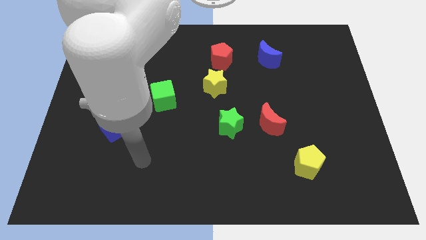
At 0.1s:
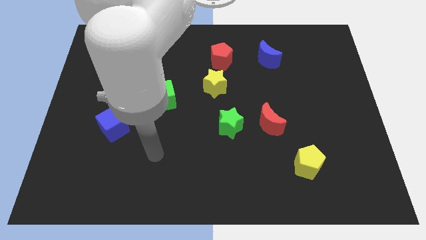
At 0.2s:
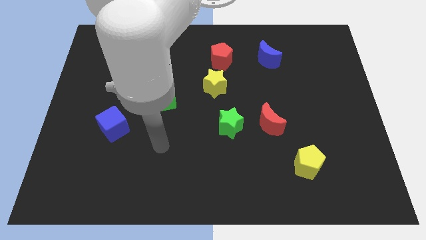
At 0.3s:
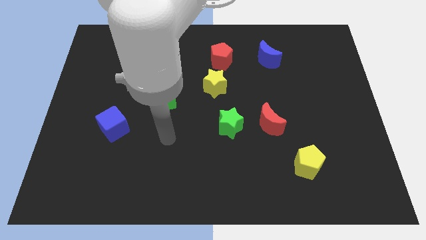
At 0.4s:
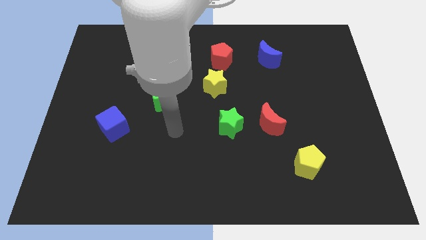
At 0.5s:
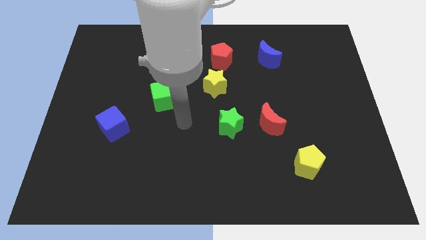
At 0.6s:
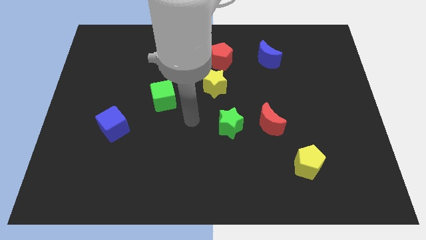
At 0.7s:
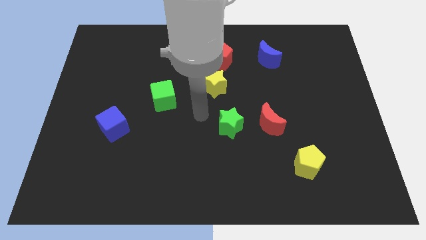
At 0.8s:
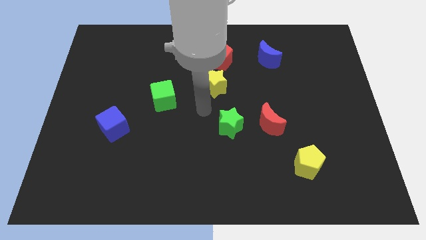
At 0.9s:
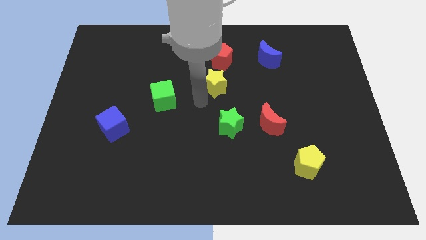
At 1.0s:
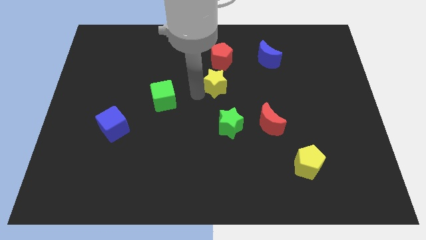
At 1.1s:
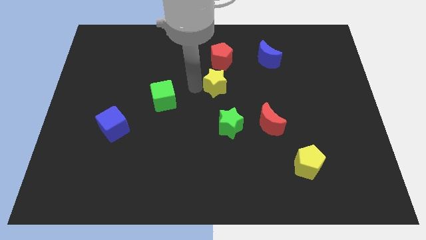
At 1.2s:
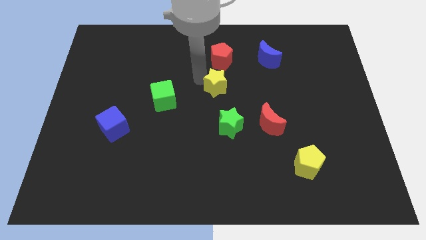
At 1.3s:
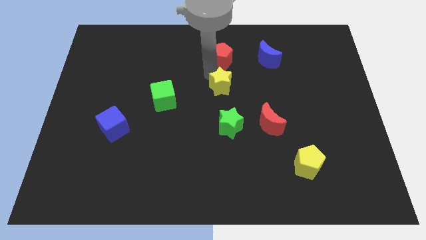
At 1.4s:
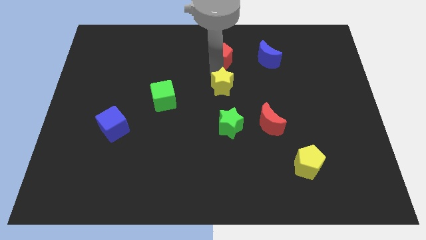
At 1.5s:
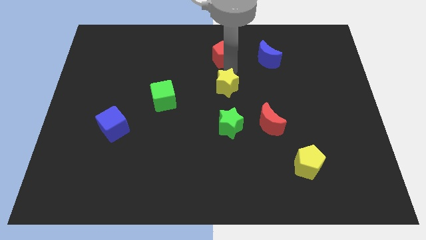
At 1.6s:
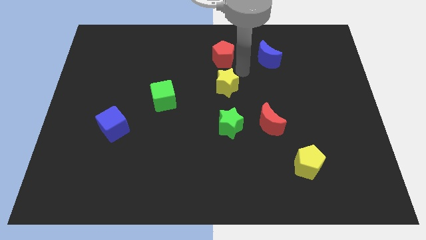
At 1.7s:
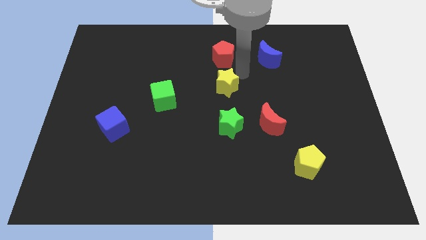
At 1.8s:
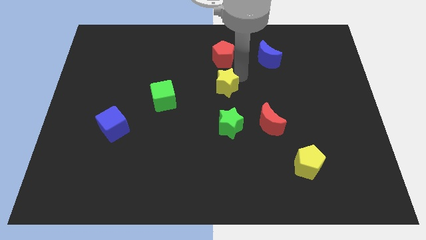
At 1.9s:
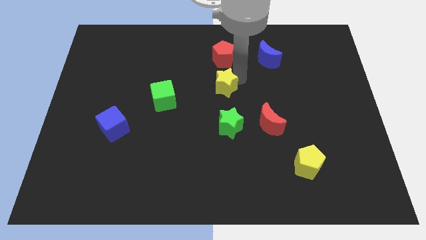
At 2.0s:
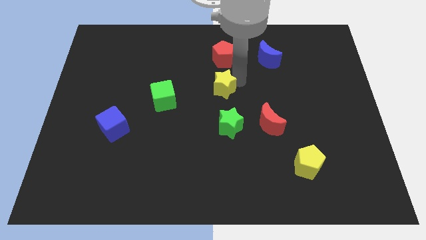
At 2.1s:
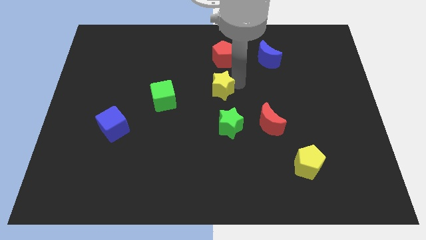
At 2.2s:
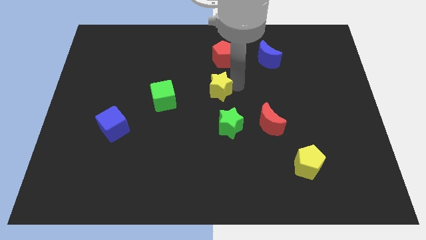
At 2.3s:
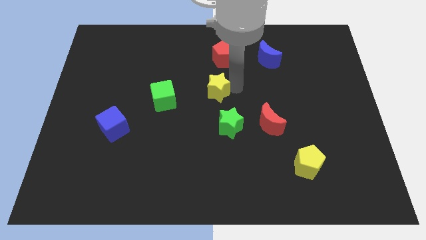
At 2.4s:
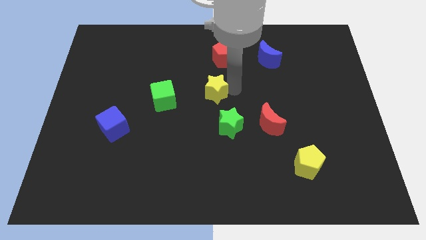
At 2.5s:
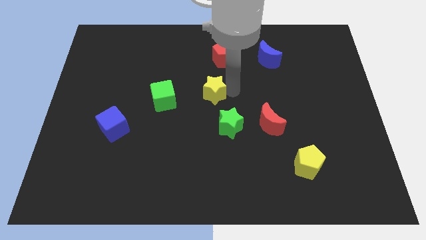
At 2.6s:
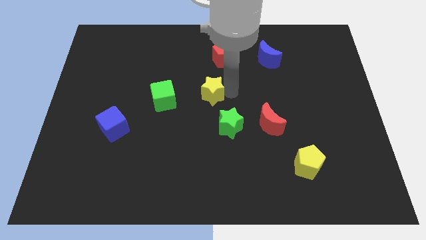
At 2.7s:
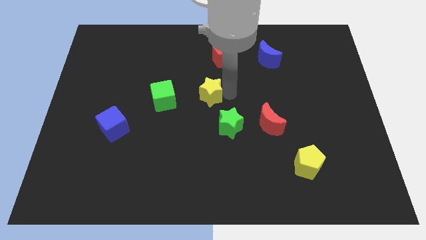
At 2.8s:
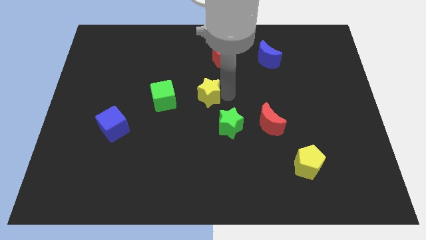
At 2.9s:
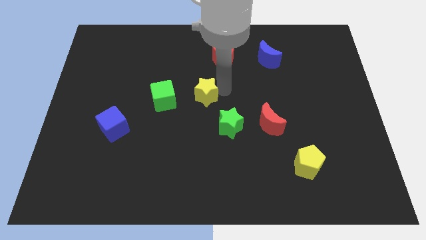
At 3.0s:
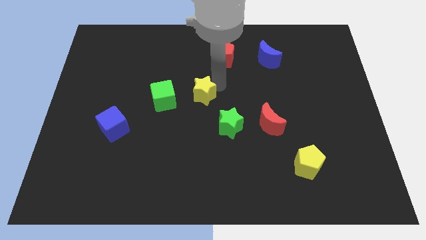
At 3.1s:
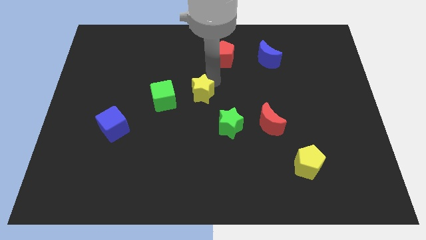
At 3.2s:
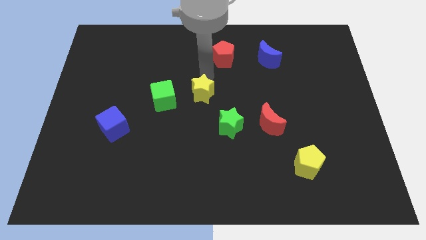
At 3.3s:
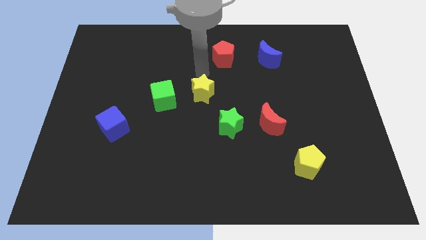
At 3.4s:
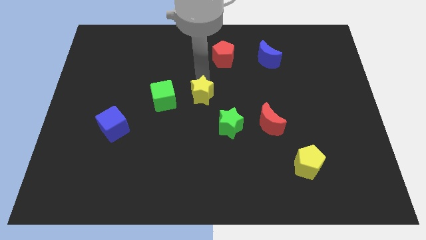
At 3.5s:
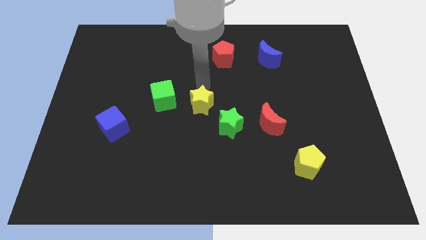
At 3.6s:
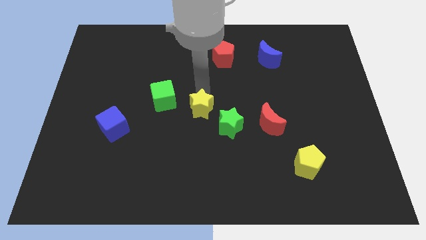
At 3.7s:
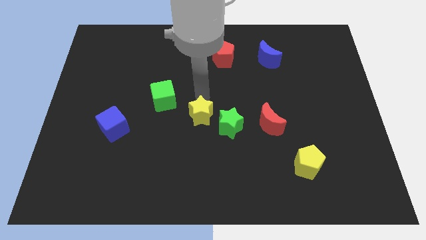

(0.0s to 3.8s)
slide the yellow star somewhat down

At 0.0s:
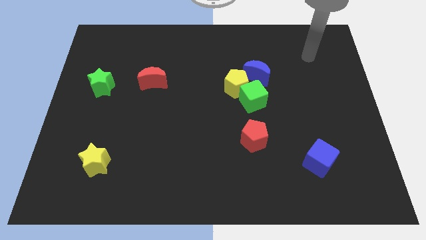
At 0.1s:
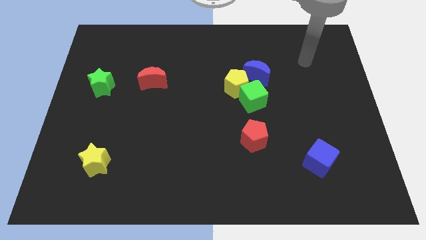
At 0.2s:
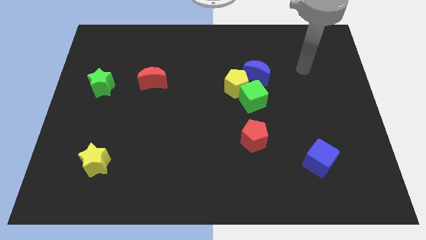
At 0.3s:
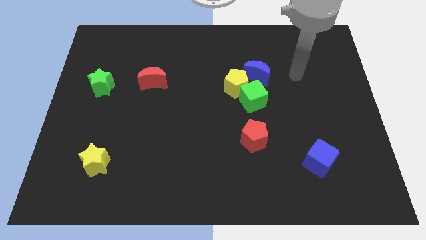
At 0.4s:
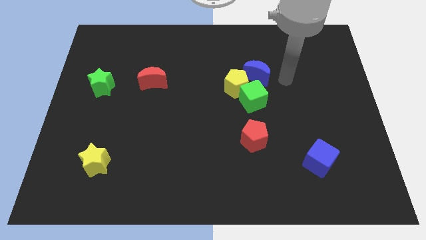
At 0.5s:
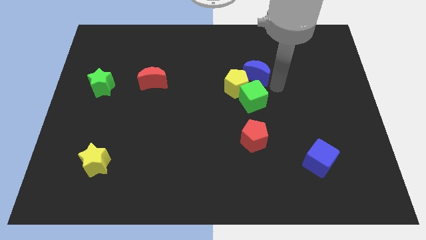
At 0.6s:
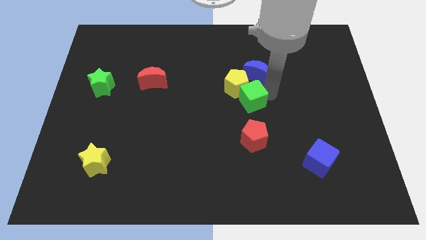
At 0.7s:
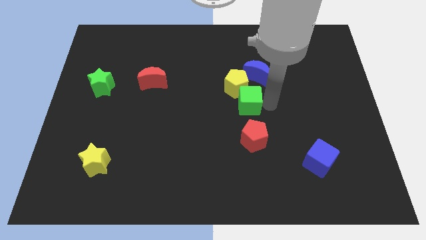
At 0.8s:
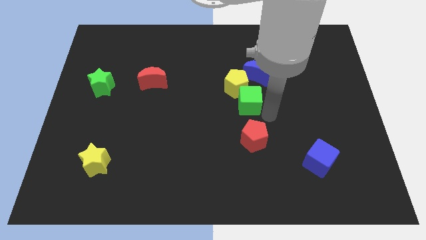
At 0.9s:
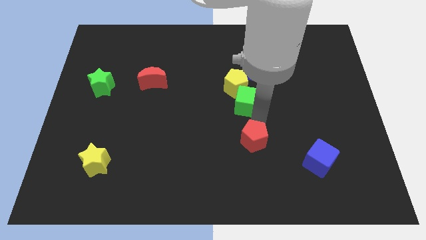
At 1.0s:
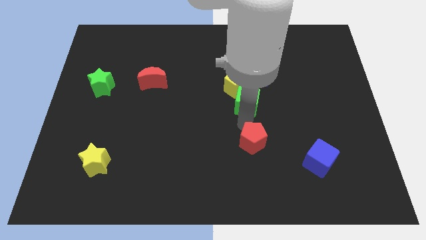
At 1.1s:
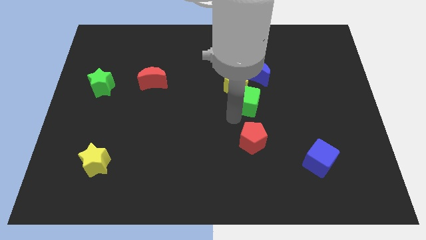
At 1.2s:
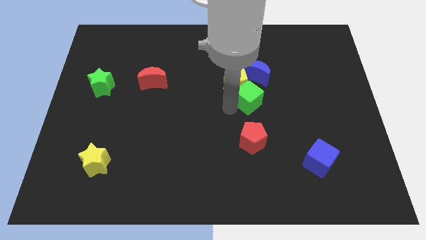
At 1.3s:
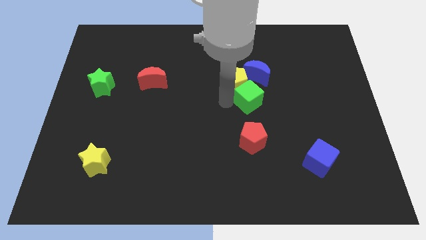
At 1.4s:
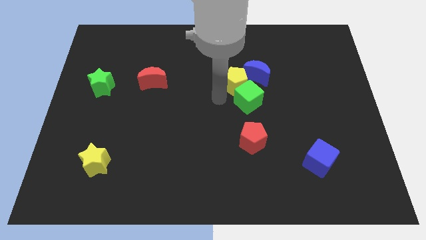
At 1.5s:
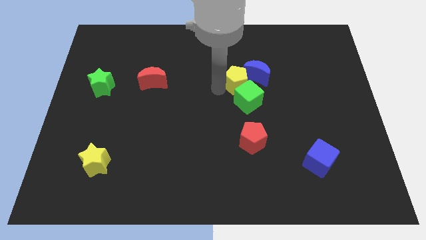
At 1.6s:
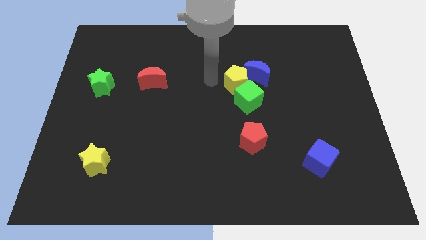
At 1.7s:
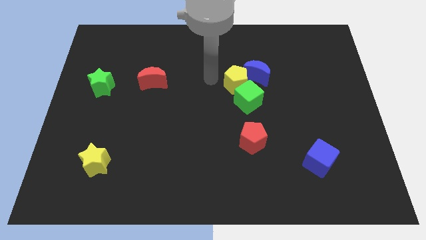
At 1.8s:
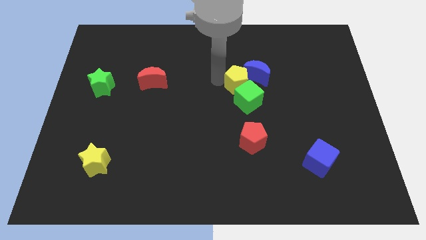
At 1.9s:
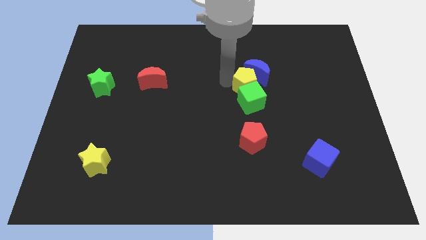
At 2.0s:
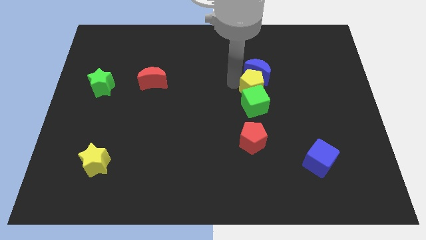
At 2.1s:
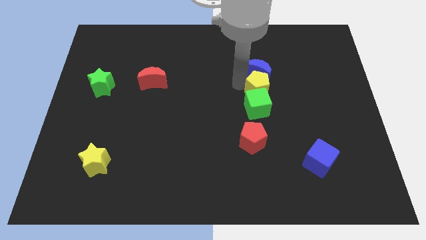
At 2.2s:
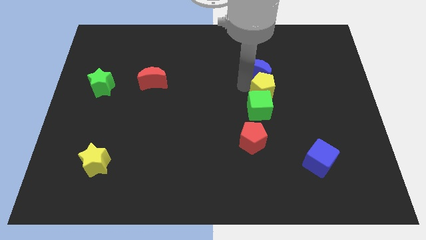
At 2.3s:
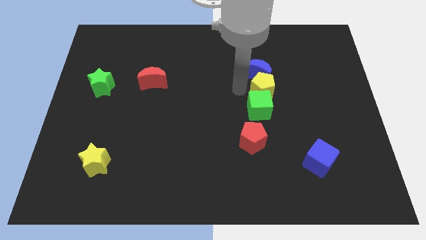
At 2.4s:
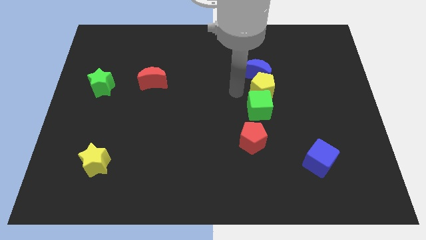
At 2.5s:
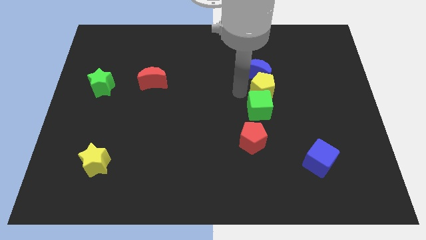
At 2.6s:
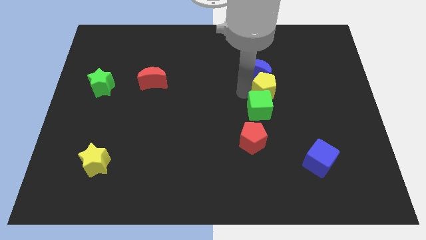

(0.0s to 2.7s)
slide the yellow pentagon a little to the right

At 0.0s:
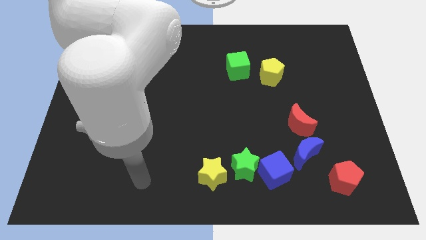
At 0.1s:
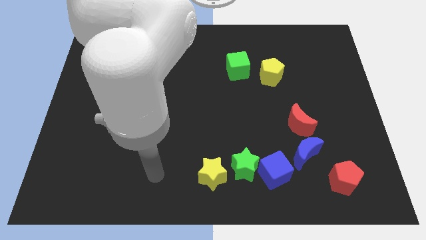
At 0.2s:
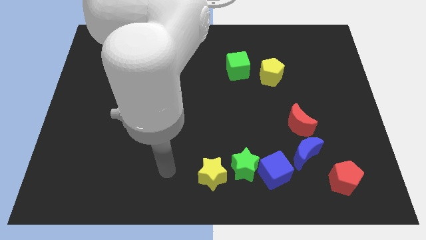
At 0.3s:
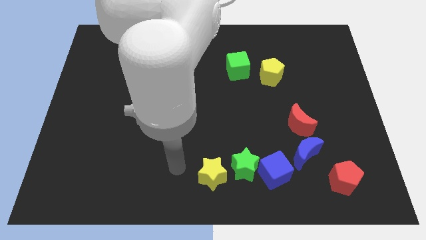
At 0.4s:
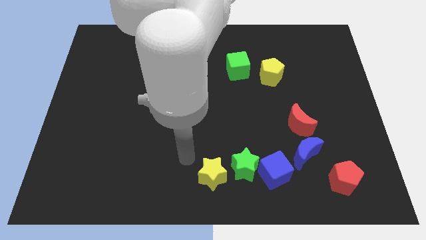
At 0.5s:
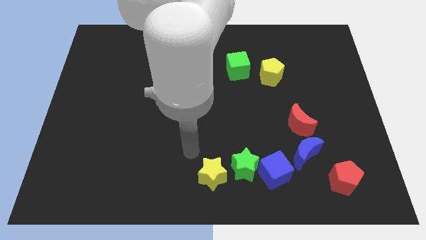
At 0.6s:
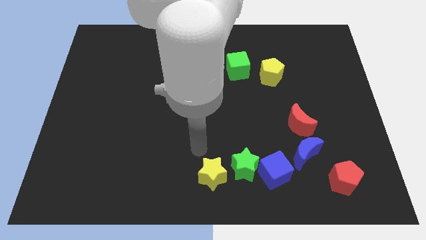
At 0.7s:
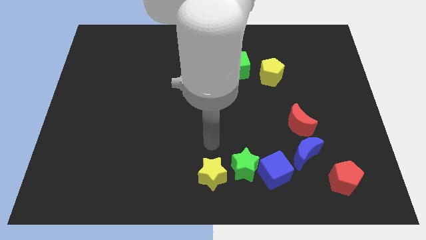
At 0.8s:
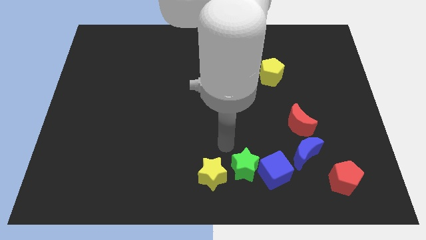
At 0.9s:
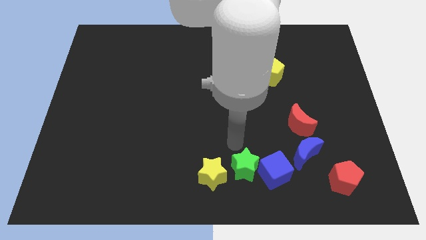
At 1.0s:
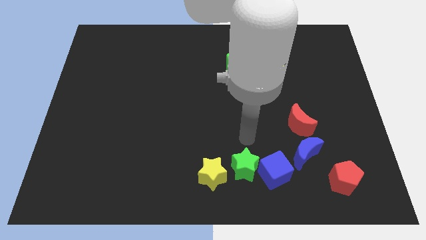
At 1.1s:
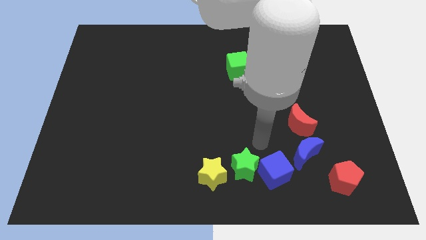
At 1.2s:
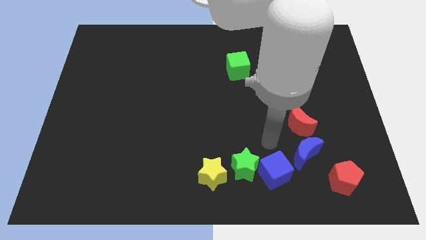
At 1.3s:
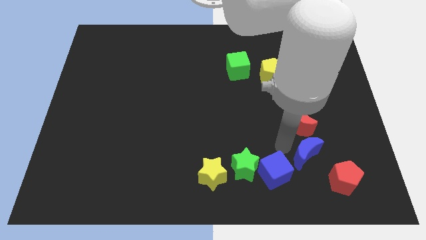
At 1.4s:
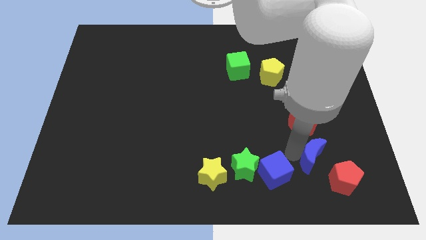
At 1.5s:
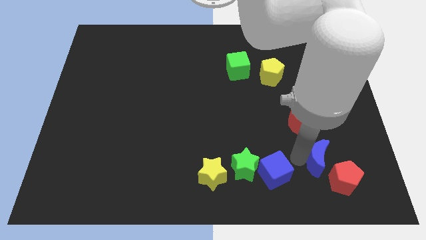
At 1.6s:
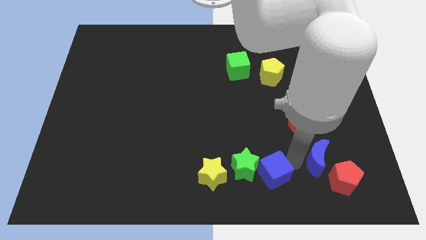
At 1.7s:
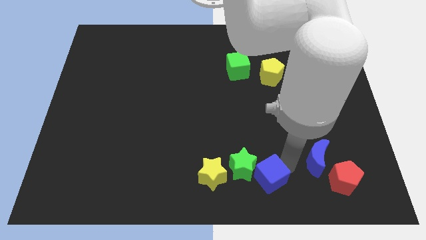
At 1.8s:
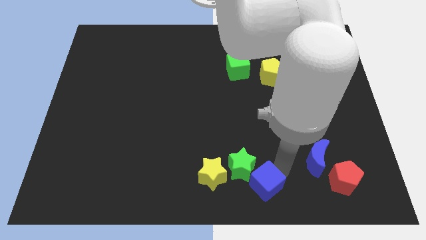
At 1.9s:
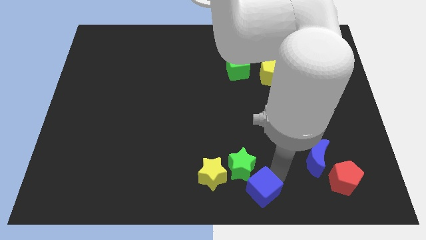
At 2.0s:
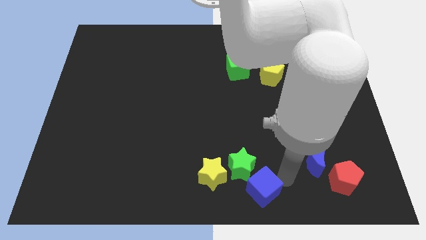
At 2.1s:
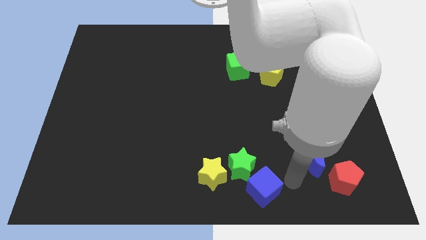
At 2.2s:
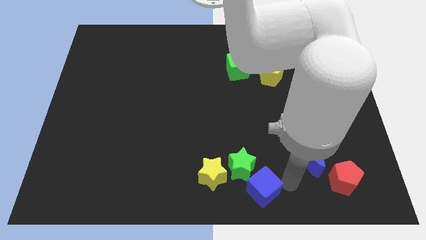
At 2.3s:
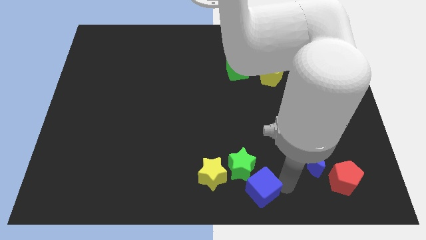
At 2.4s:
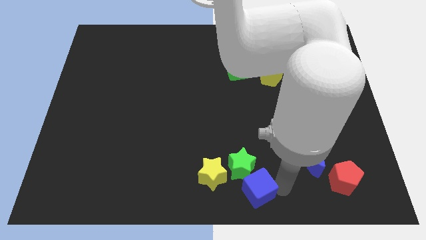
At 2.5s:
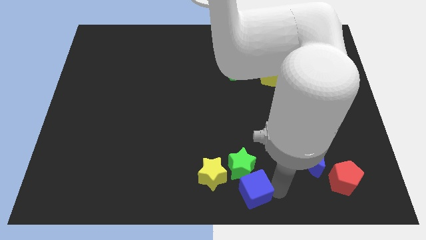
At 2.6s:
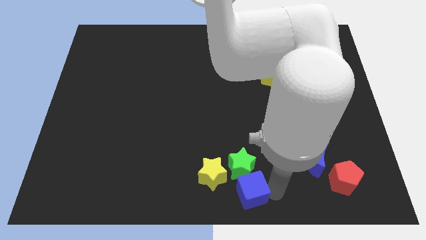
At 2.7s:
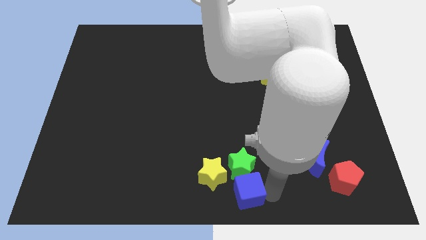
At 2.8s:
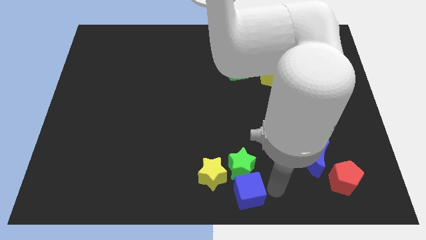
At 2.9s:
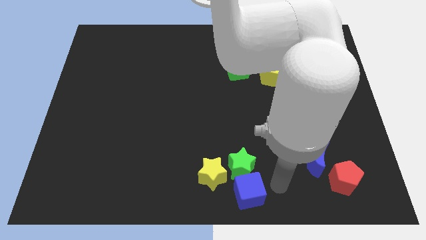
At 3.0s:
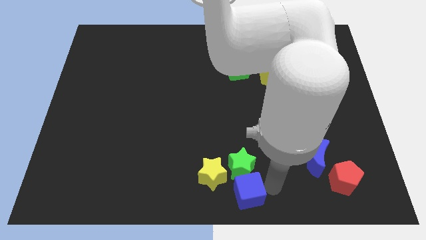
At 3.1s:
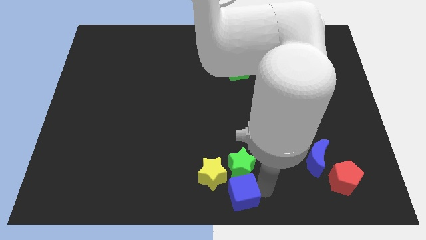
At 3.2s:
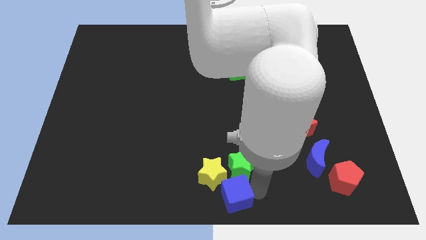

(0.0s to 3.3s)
slide the blue cube left a little bit
